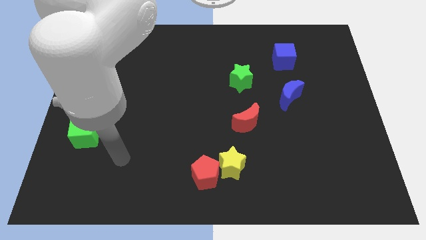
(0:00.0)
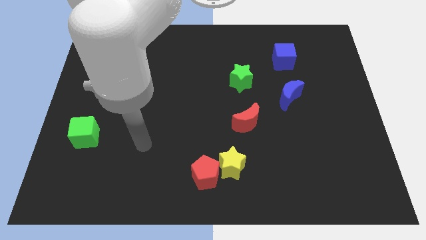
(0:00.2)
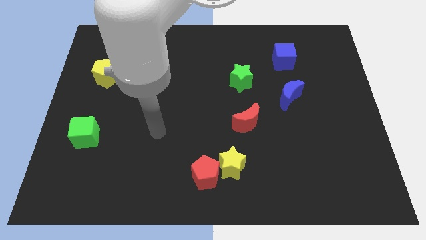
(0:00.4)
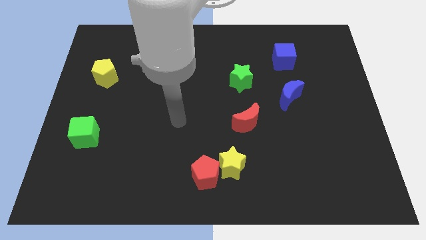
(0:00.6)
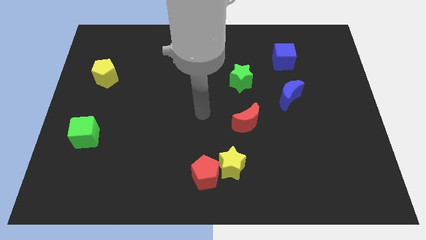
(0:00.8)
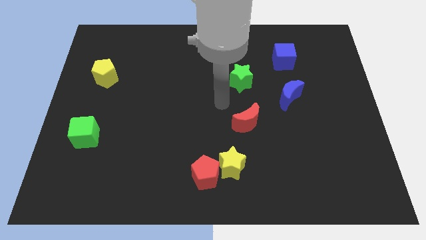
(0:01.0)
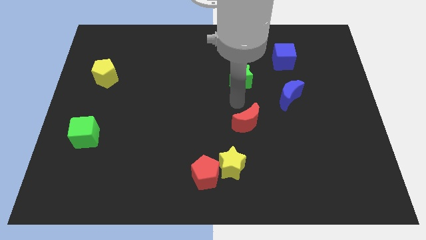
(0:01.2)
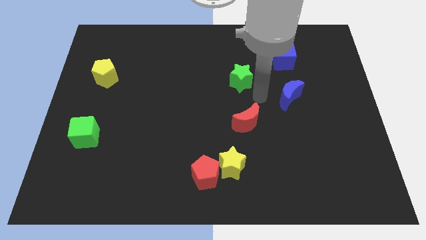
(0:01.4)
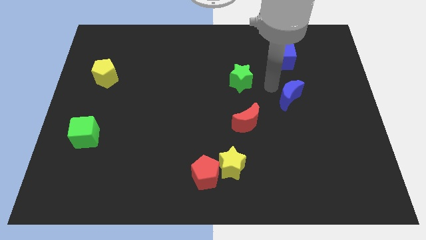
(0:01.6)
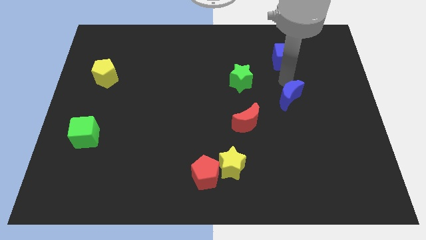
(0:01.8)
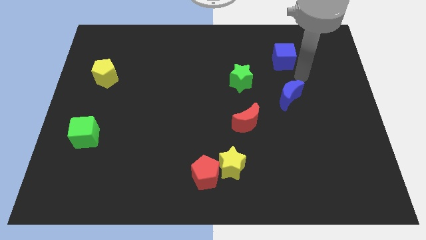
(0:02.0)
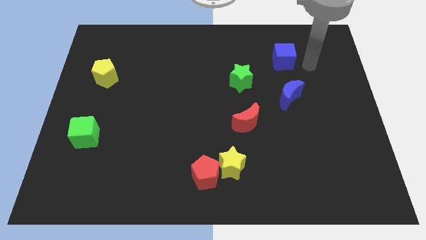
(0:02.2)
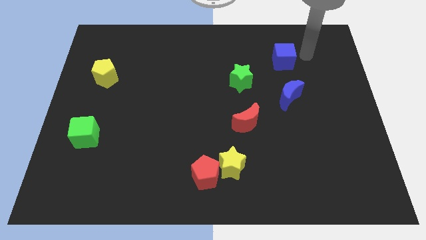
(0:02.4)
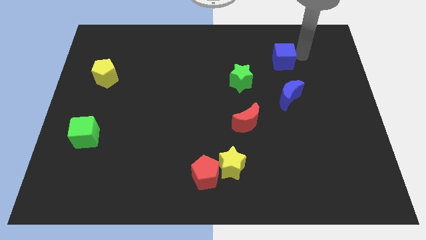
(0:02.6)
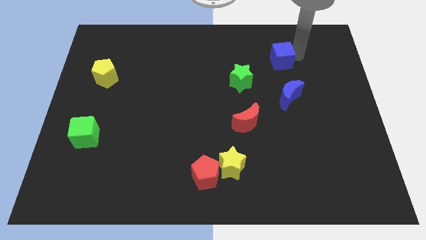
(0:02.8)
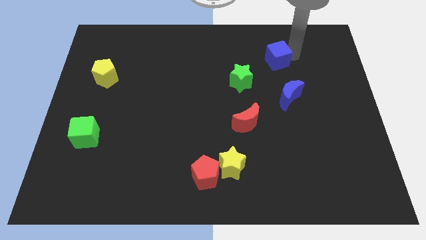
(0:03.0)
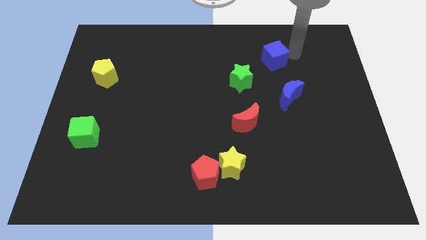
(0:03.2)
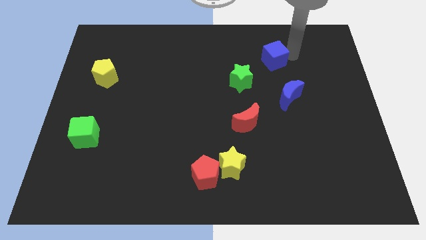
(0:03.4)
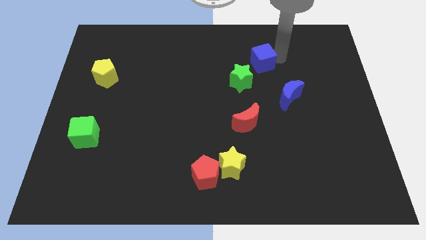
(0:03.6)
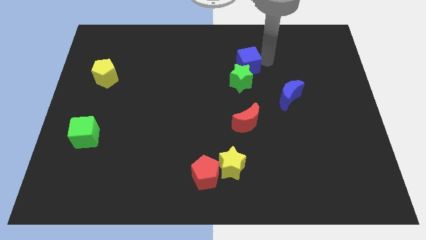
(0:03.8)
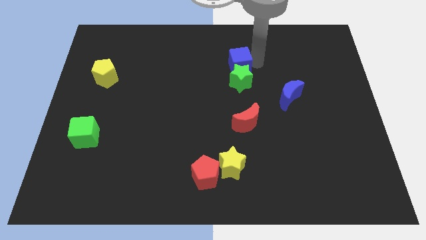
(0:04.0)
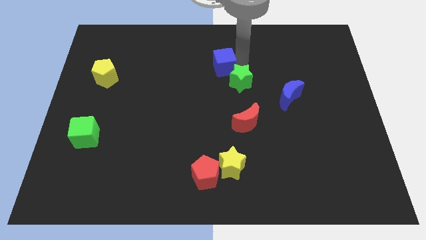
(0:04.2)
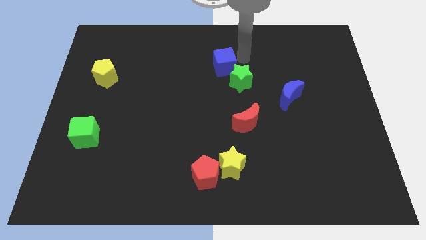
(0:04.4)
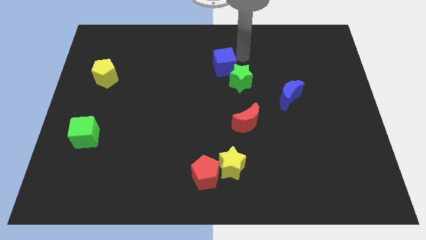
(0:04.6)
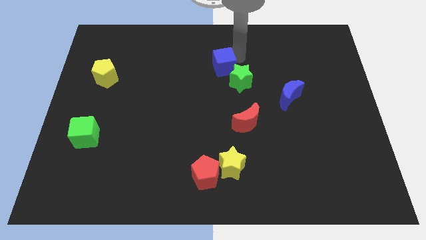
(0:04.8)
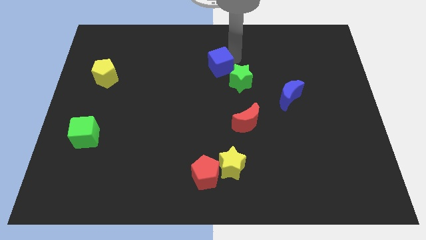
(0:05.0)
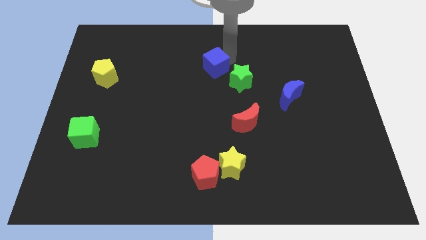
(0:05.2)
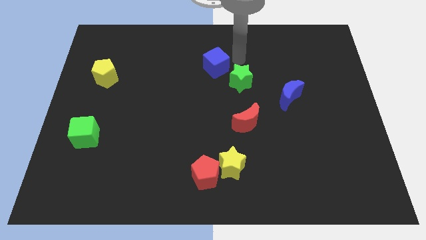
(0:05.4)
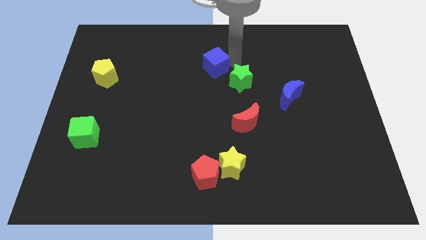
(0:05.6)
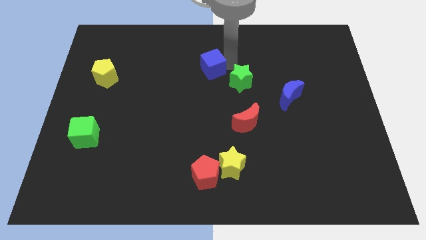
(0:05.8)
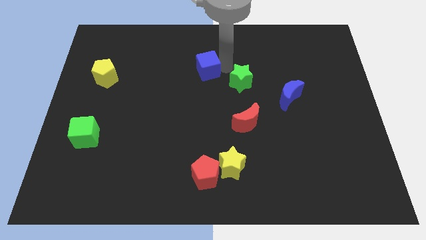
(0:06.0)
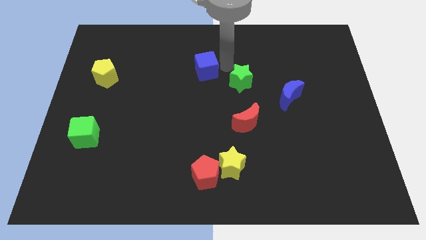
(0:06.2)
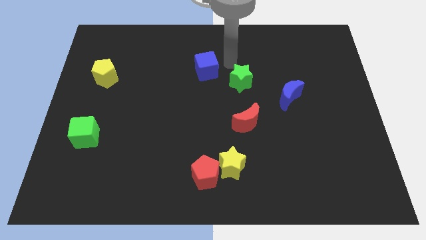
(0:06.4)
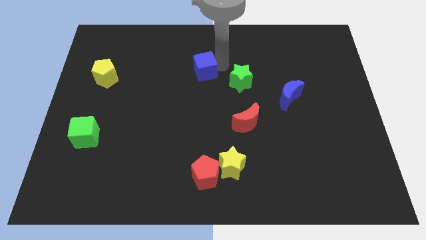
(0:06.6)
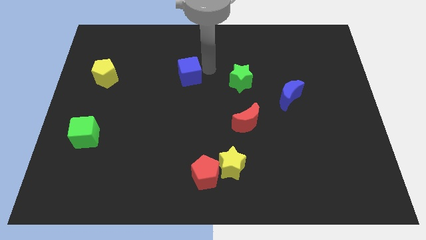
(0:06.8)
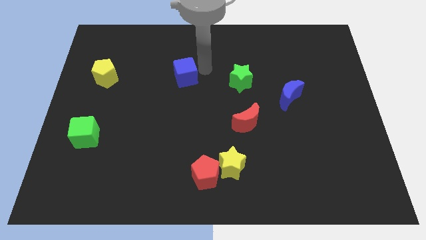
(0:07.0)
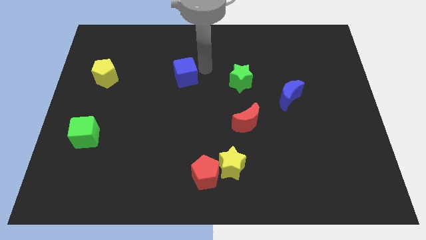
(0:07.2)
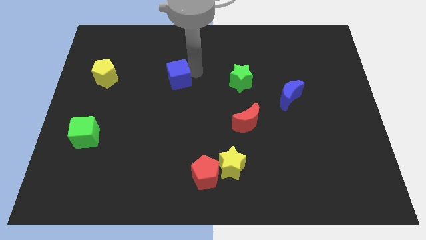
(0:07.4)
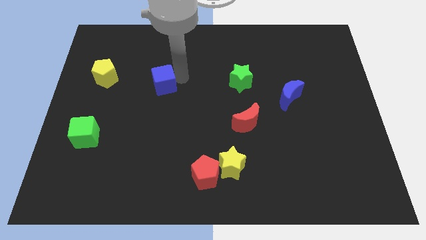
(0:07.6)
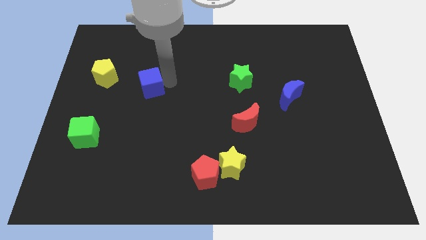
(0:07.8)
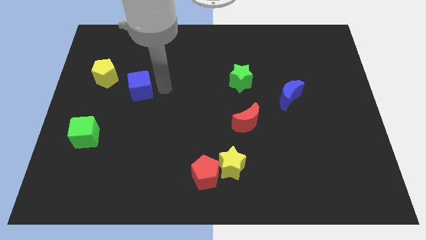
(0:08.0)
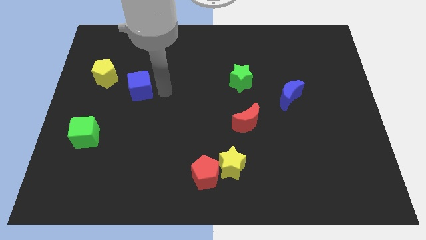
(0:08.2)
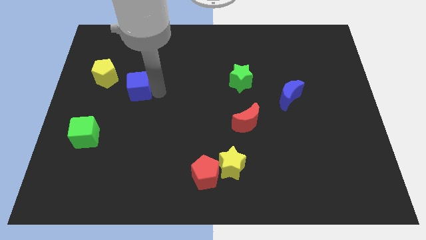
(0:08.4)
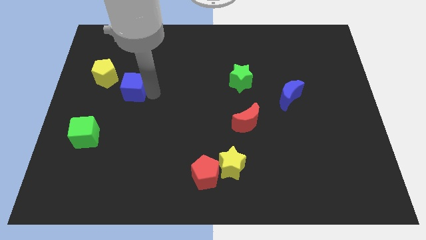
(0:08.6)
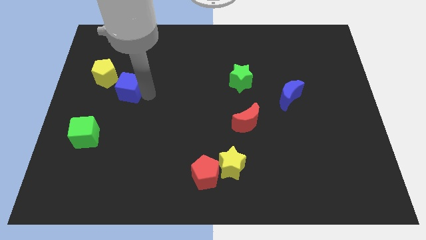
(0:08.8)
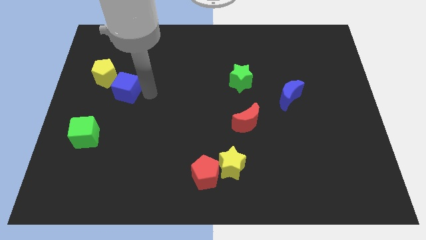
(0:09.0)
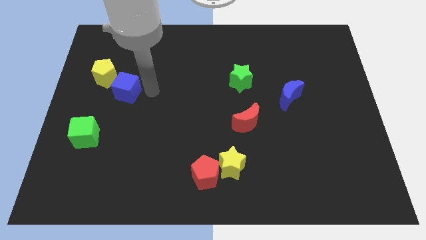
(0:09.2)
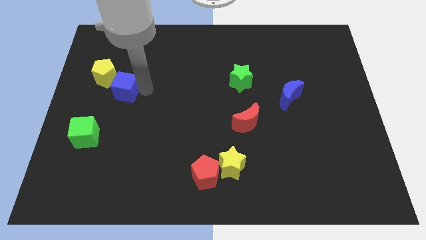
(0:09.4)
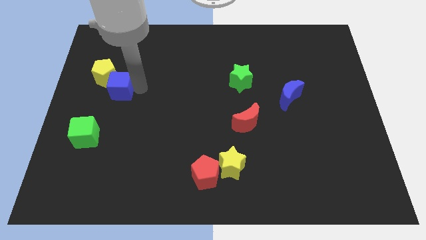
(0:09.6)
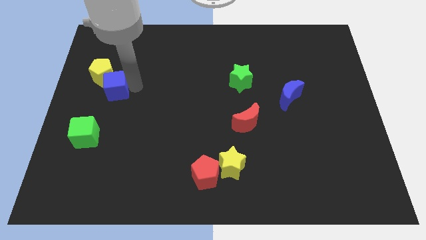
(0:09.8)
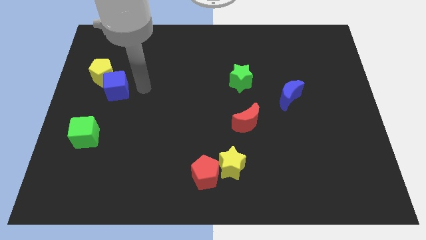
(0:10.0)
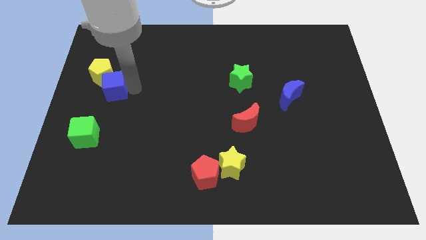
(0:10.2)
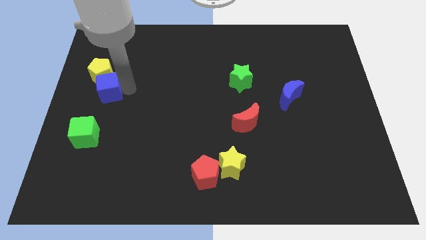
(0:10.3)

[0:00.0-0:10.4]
slide the blue cube to the left side

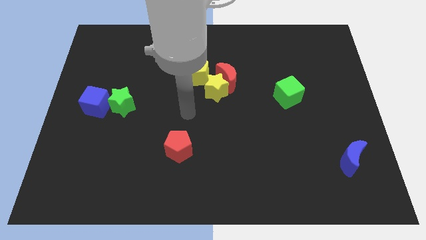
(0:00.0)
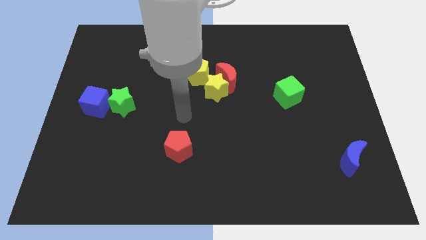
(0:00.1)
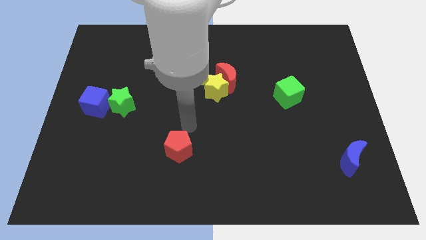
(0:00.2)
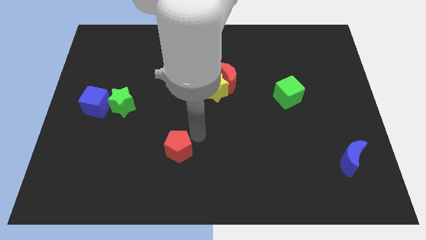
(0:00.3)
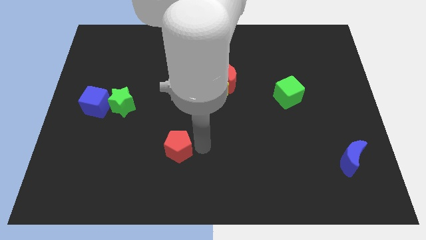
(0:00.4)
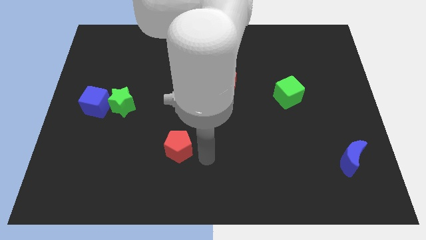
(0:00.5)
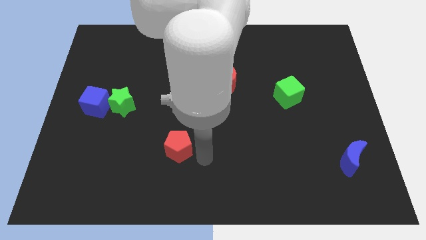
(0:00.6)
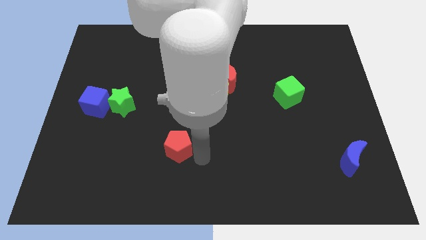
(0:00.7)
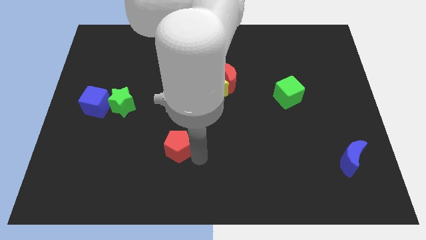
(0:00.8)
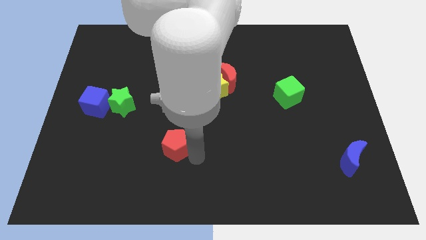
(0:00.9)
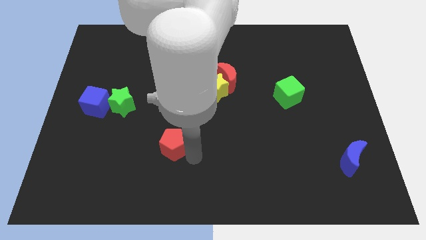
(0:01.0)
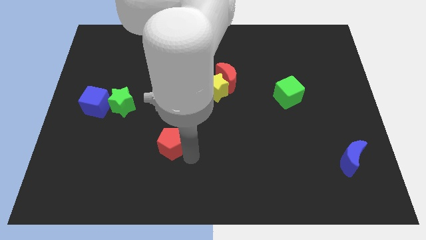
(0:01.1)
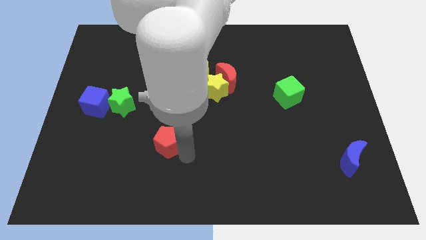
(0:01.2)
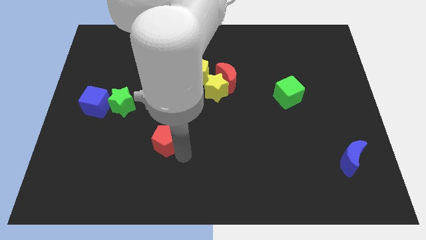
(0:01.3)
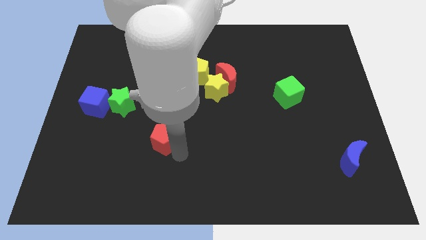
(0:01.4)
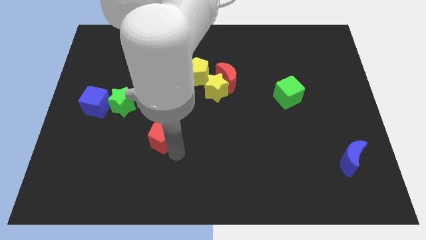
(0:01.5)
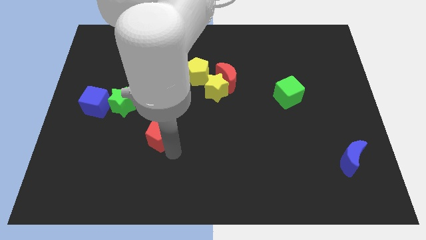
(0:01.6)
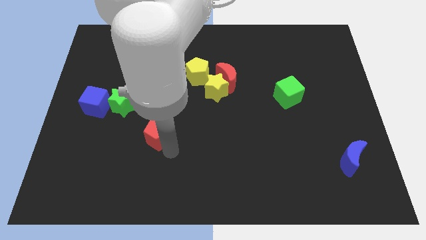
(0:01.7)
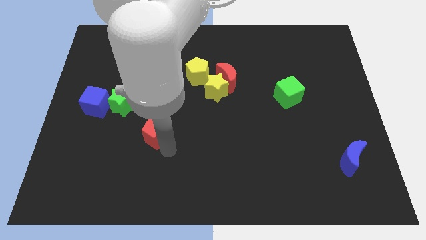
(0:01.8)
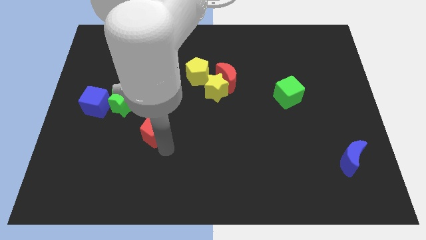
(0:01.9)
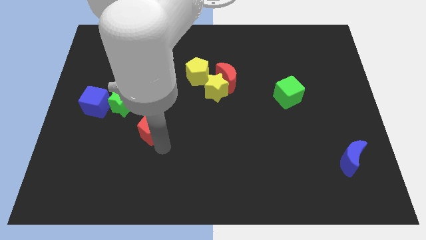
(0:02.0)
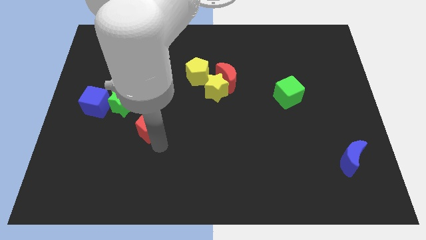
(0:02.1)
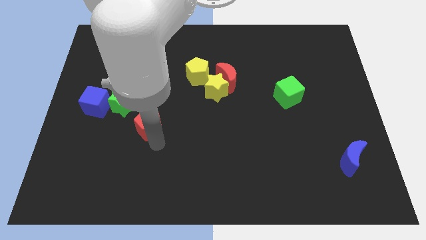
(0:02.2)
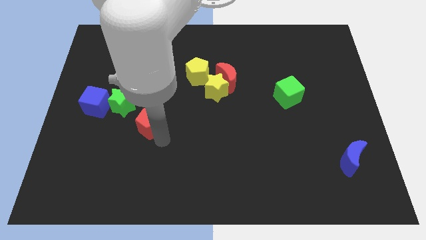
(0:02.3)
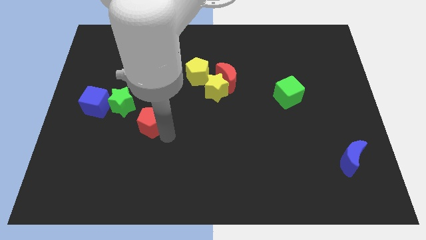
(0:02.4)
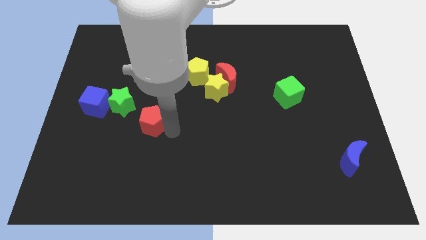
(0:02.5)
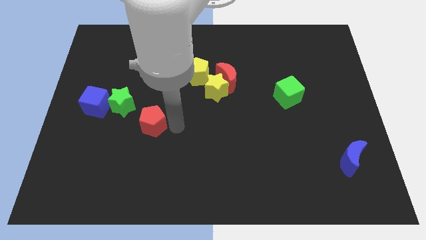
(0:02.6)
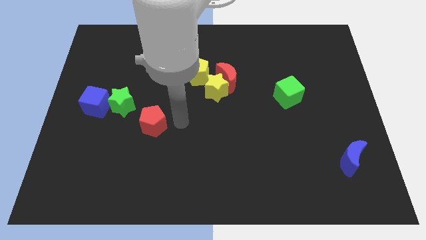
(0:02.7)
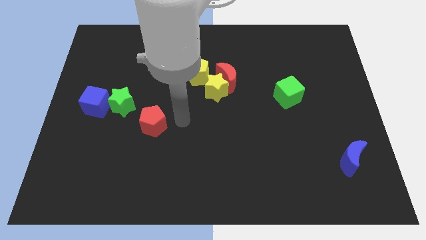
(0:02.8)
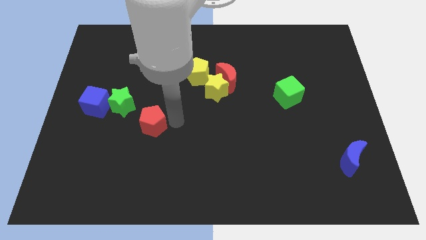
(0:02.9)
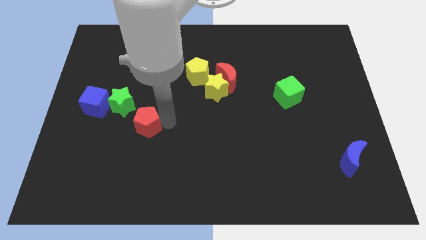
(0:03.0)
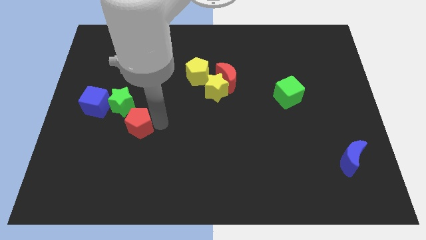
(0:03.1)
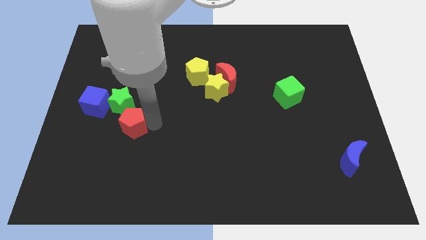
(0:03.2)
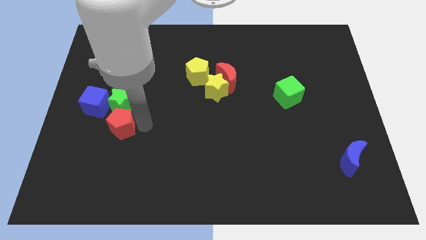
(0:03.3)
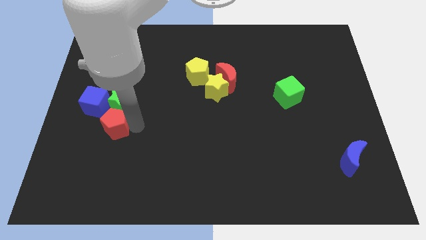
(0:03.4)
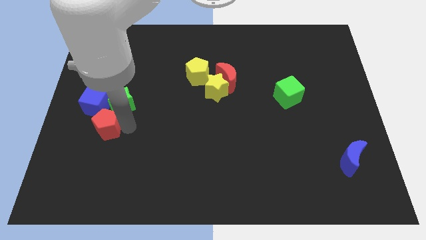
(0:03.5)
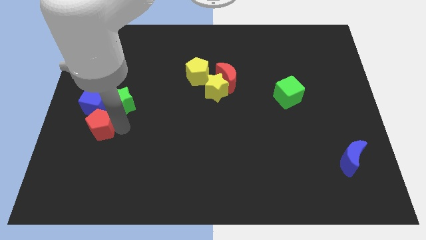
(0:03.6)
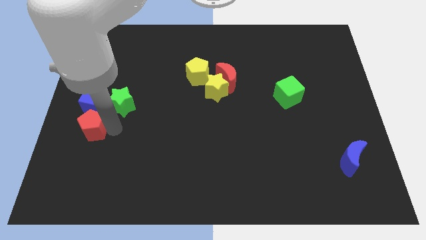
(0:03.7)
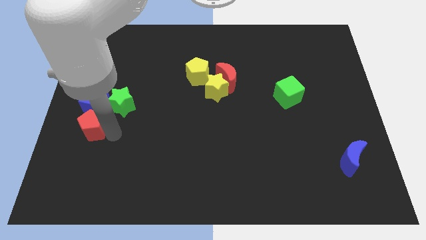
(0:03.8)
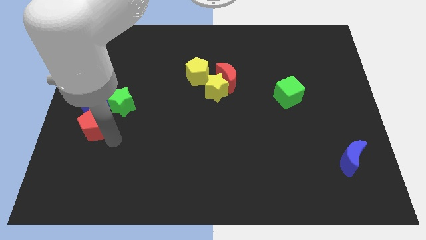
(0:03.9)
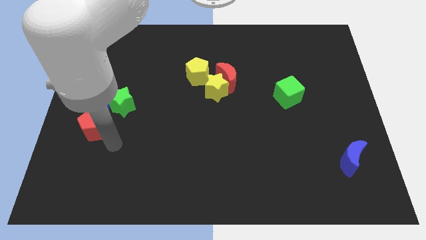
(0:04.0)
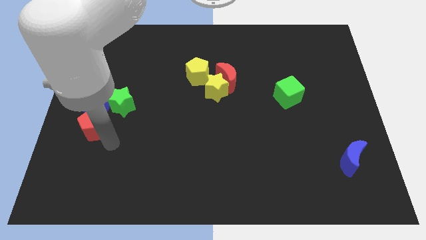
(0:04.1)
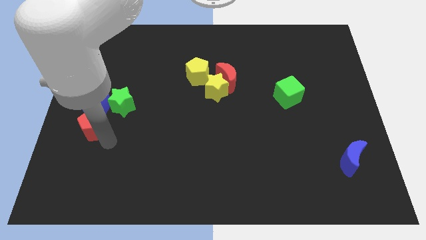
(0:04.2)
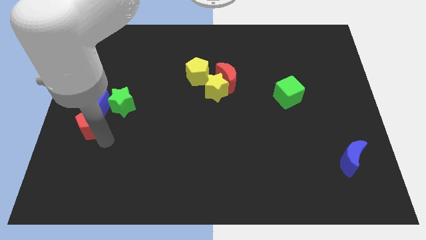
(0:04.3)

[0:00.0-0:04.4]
move the red pentagon to the left side
